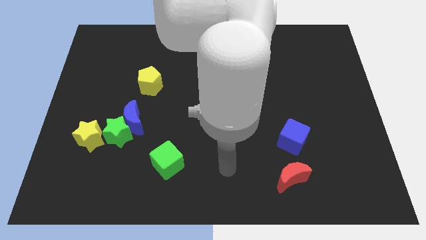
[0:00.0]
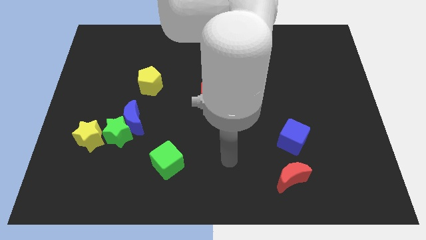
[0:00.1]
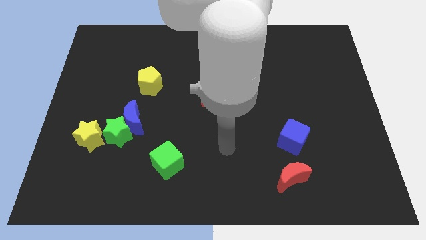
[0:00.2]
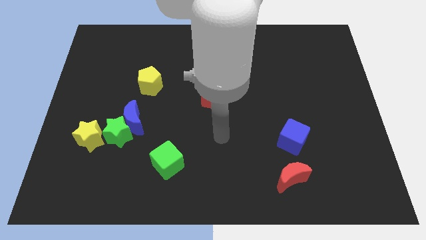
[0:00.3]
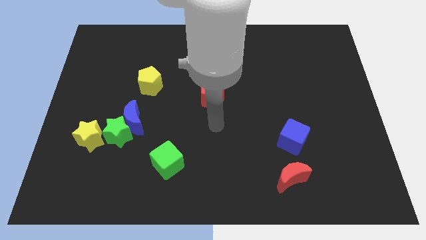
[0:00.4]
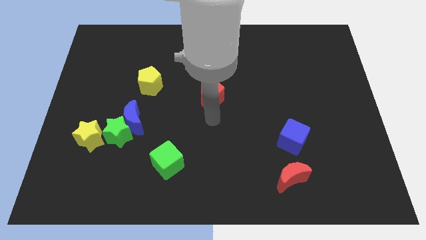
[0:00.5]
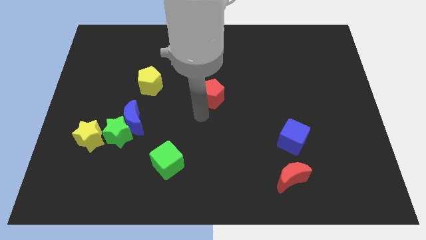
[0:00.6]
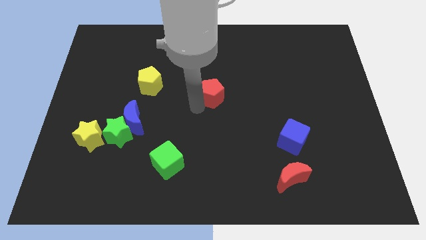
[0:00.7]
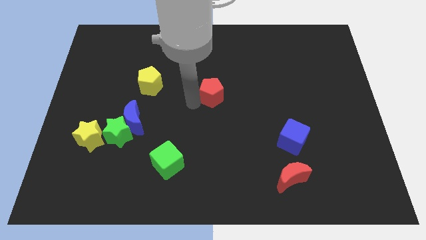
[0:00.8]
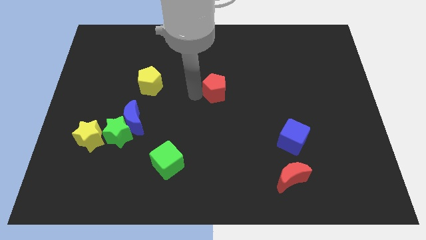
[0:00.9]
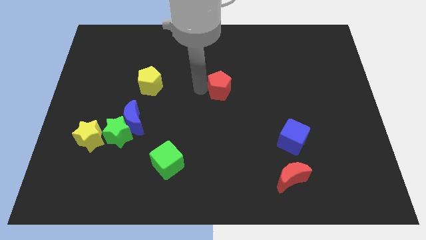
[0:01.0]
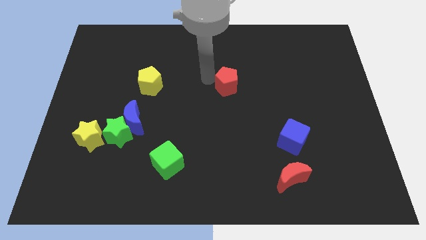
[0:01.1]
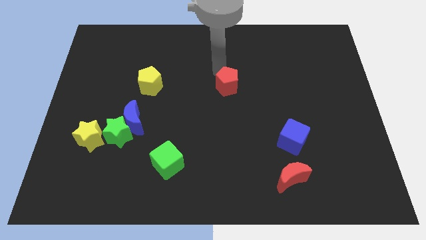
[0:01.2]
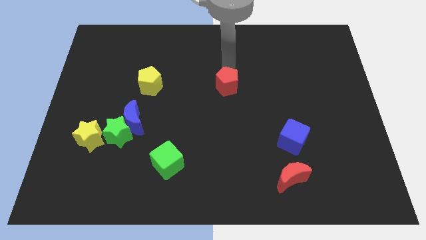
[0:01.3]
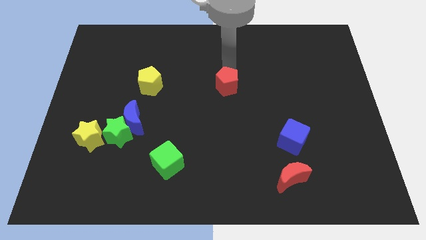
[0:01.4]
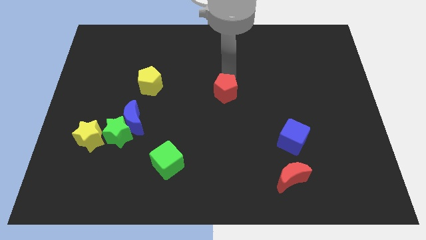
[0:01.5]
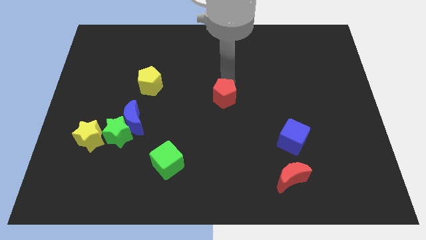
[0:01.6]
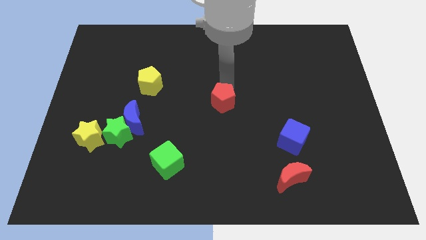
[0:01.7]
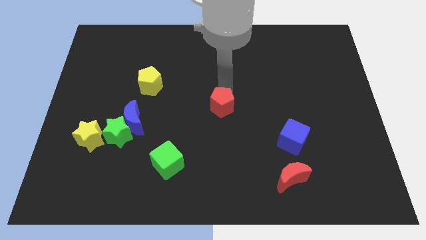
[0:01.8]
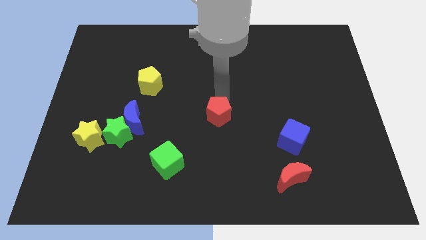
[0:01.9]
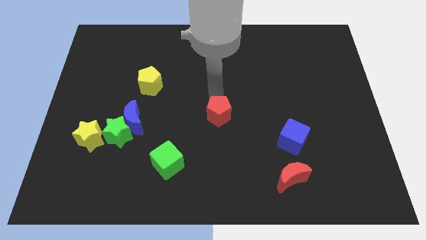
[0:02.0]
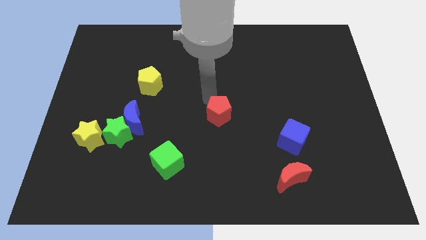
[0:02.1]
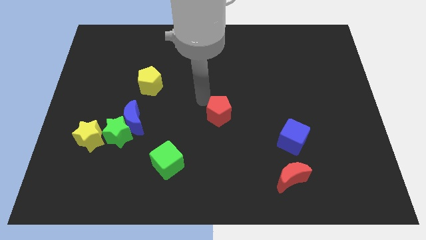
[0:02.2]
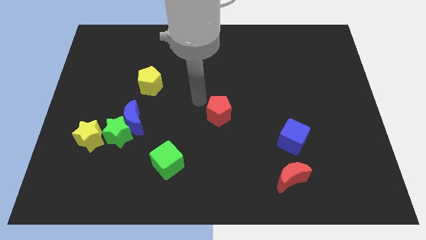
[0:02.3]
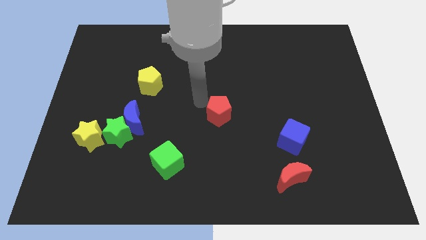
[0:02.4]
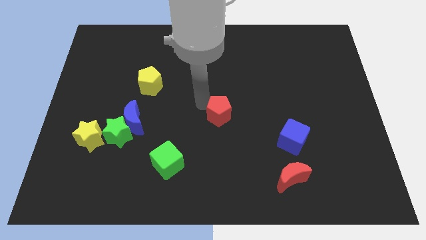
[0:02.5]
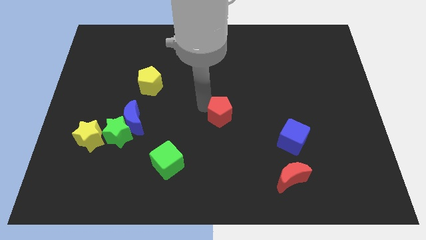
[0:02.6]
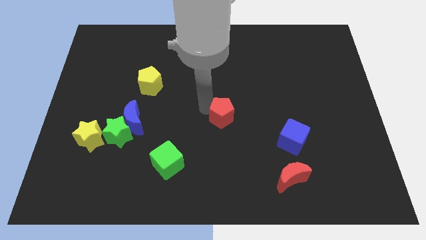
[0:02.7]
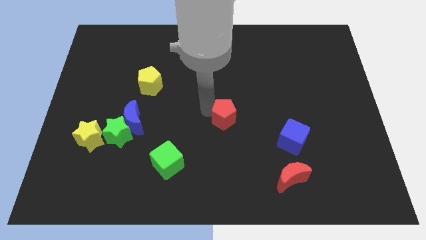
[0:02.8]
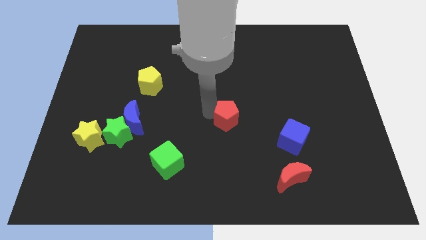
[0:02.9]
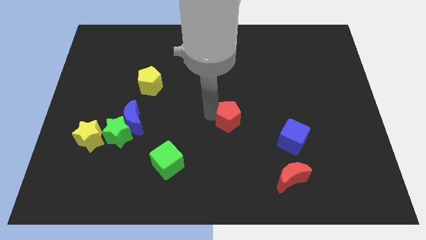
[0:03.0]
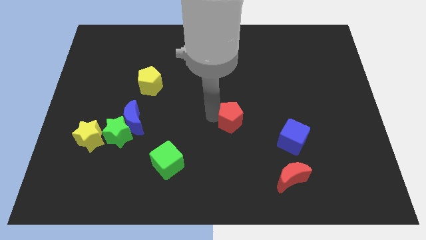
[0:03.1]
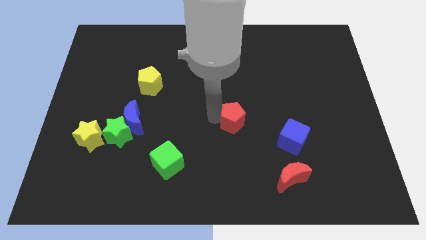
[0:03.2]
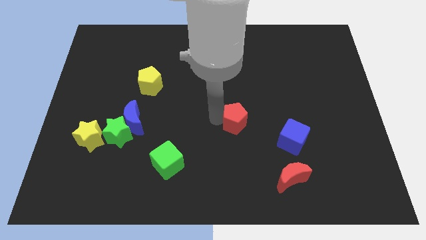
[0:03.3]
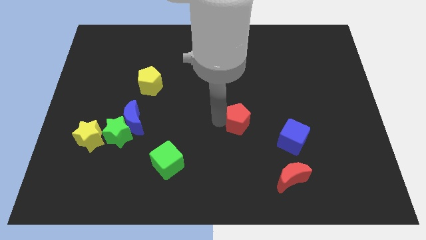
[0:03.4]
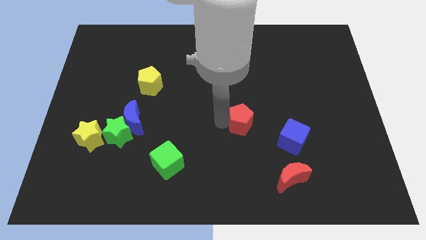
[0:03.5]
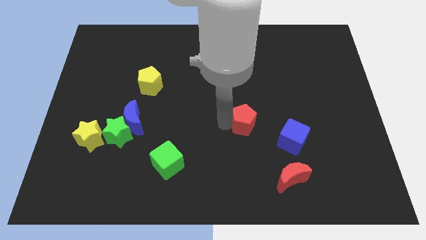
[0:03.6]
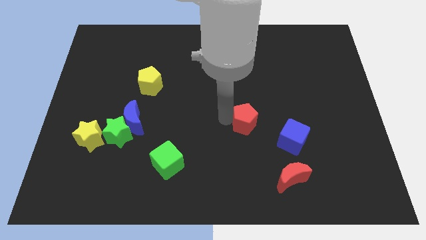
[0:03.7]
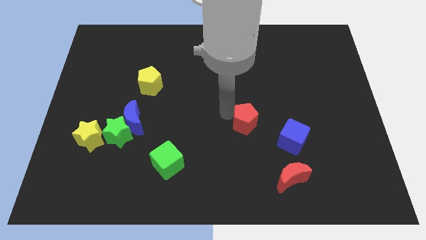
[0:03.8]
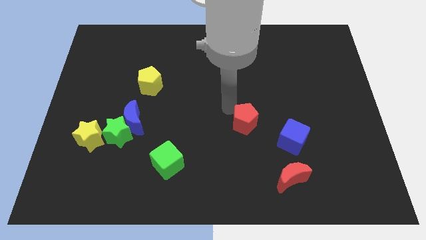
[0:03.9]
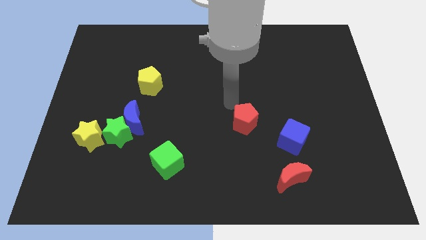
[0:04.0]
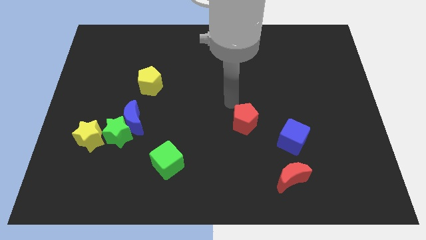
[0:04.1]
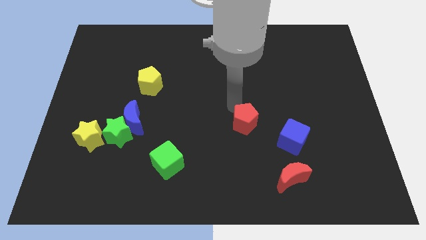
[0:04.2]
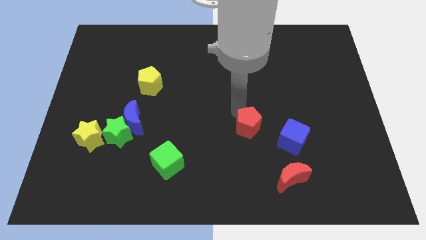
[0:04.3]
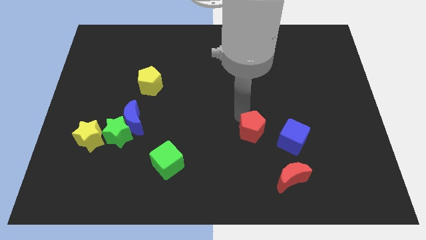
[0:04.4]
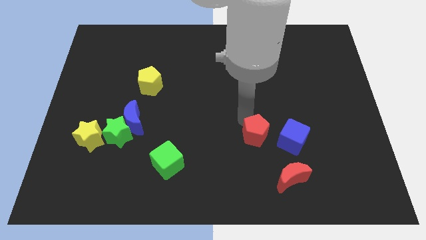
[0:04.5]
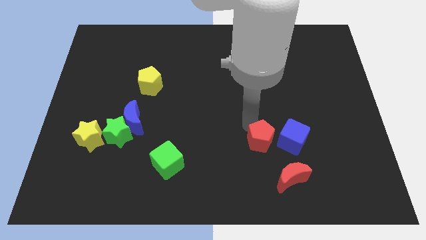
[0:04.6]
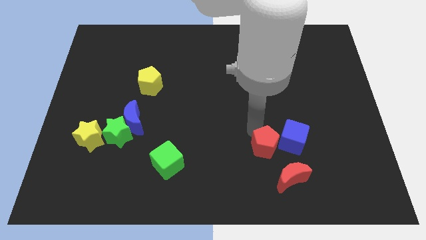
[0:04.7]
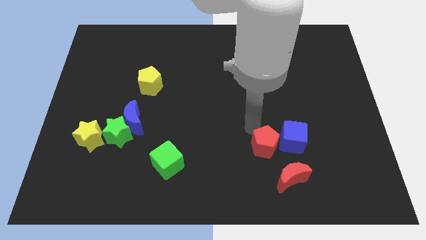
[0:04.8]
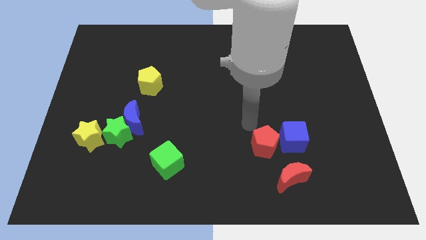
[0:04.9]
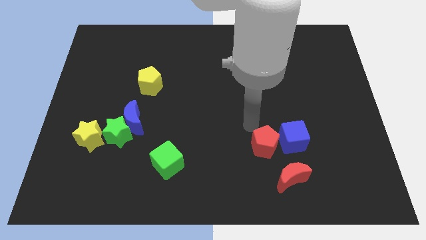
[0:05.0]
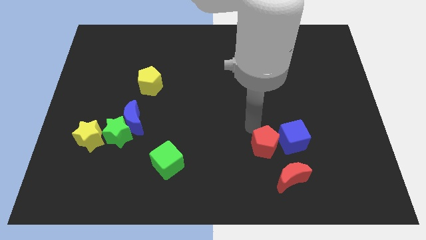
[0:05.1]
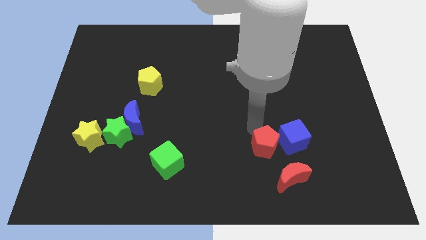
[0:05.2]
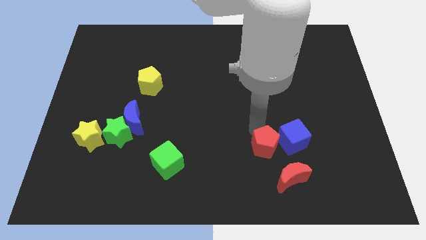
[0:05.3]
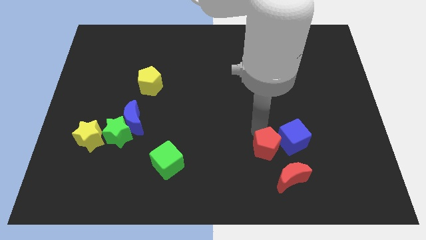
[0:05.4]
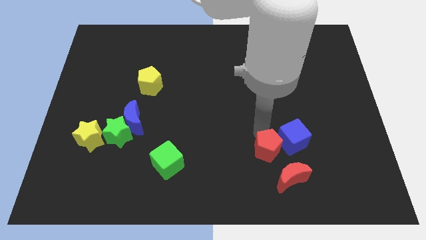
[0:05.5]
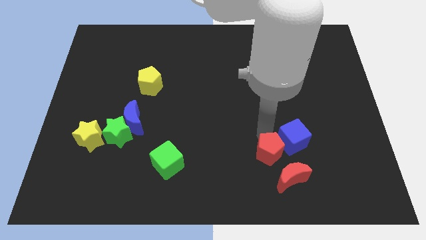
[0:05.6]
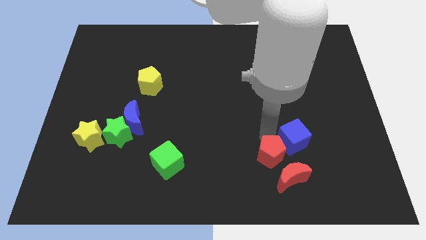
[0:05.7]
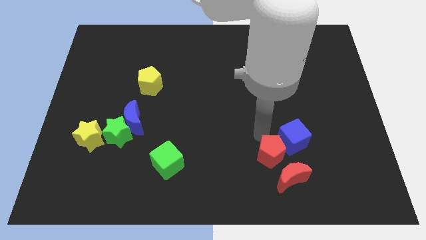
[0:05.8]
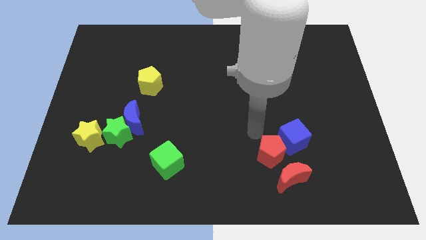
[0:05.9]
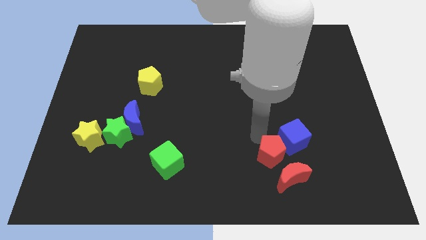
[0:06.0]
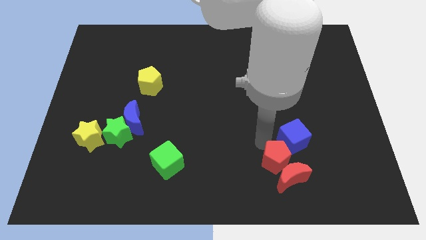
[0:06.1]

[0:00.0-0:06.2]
slide the red pentagon close to the red moon
